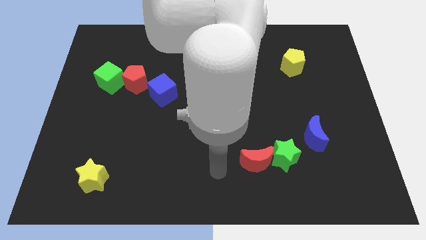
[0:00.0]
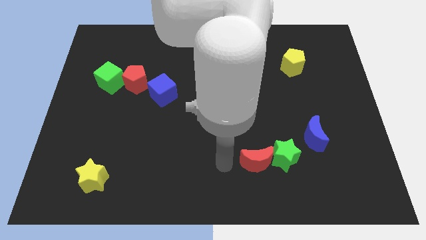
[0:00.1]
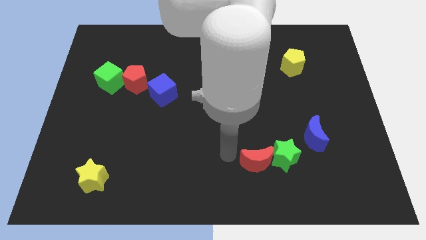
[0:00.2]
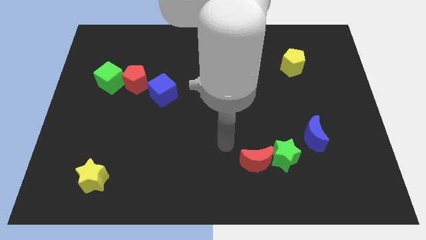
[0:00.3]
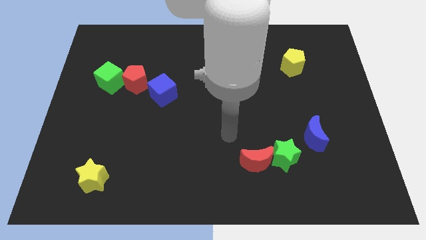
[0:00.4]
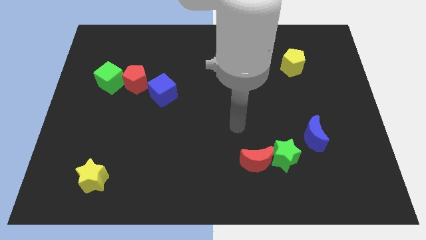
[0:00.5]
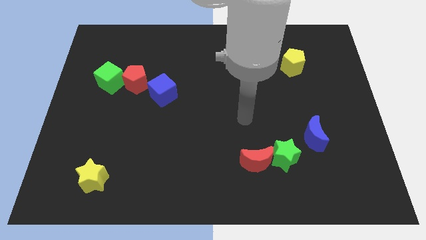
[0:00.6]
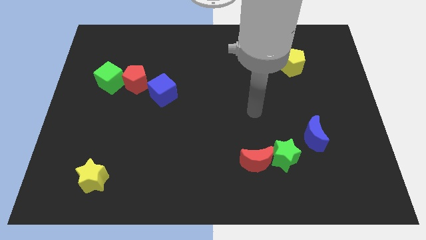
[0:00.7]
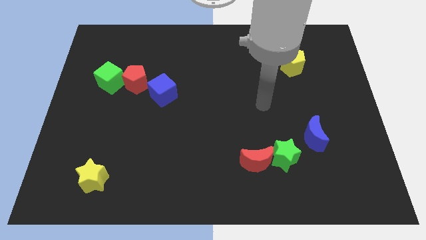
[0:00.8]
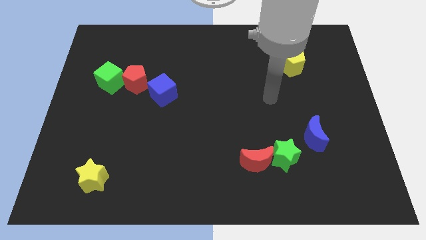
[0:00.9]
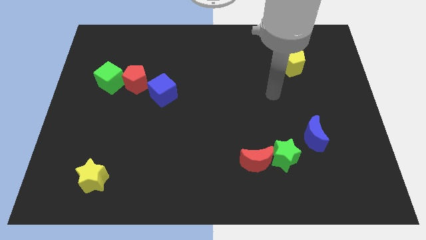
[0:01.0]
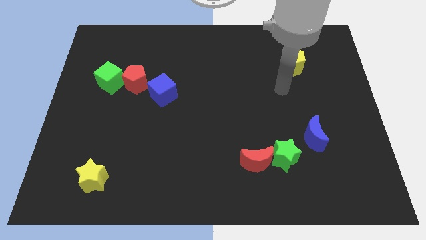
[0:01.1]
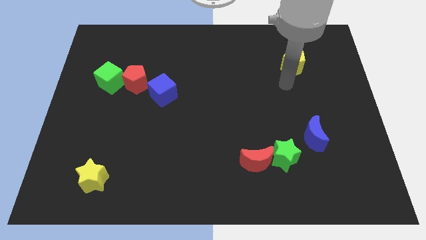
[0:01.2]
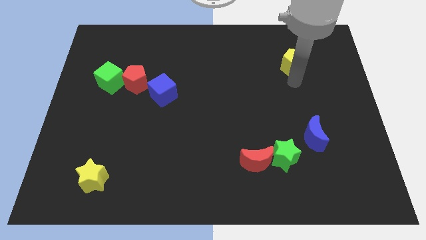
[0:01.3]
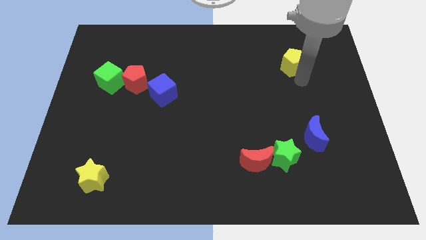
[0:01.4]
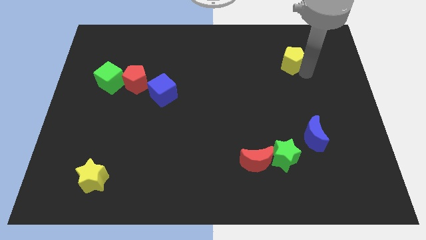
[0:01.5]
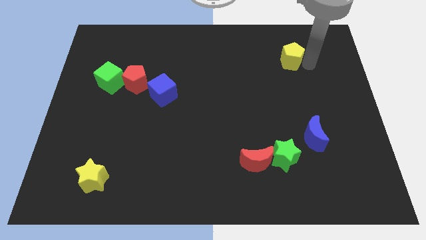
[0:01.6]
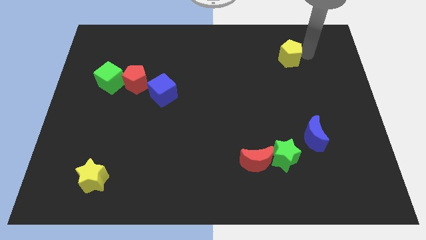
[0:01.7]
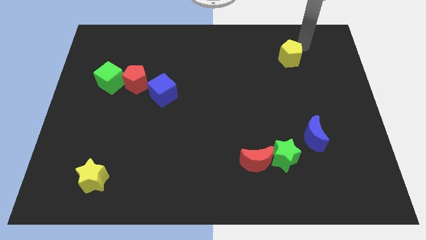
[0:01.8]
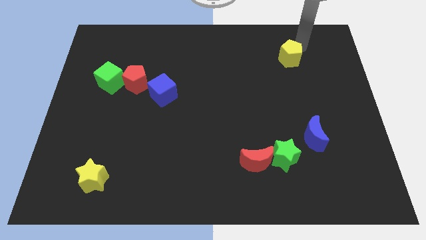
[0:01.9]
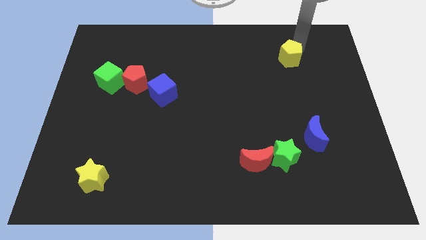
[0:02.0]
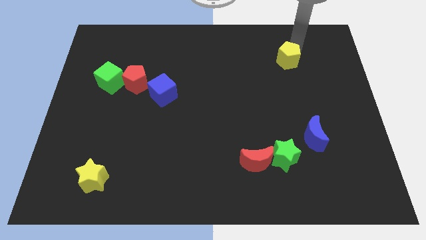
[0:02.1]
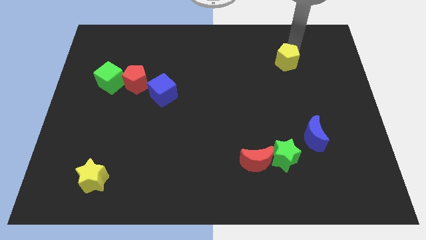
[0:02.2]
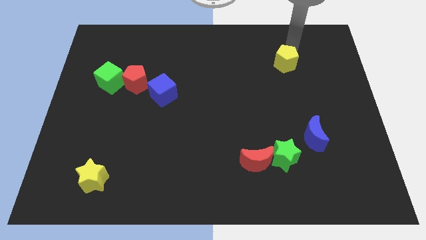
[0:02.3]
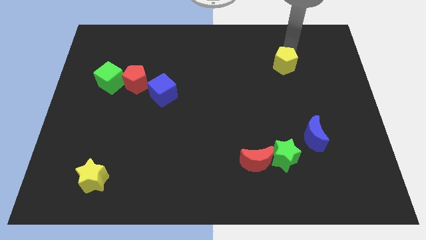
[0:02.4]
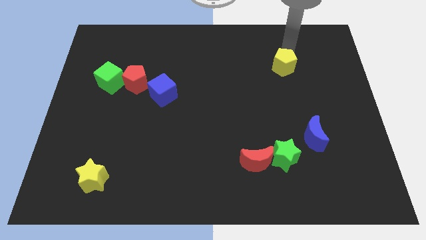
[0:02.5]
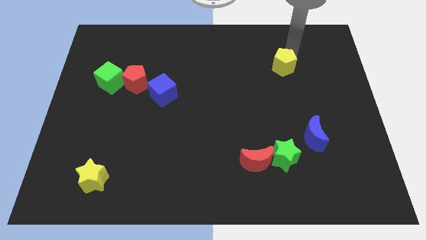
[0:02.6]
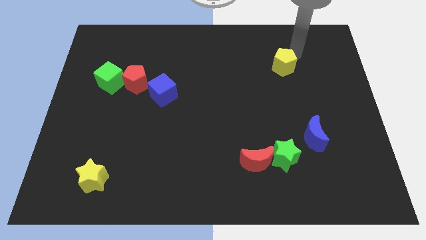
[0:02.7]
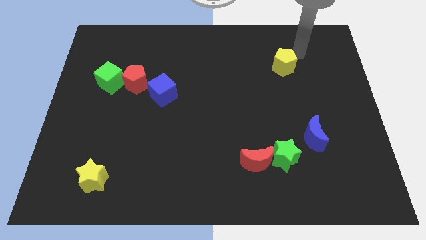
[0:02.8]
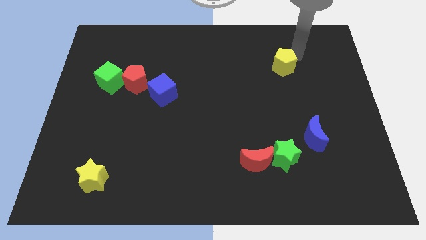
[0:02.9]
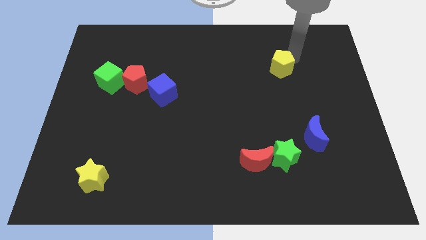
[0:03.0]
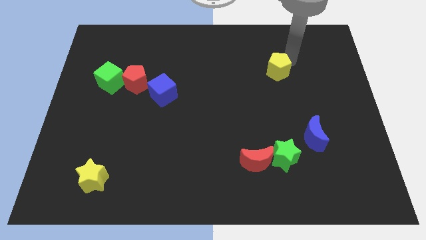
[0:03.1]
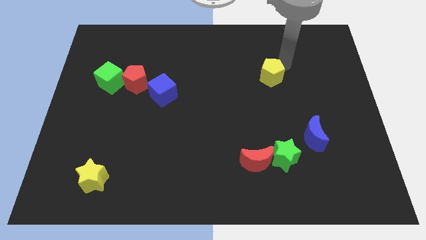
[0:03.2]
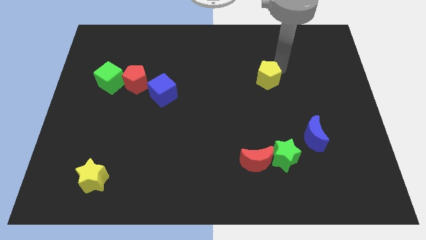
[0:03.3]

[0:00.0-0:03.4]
push the yellow pentagon diagonally downwards and to the left a little bit

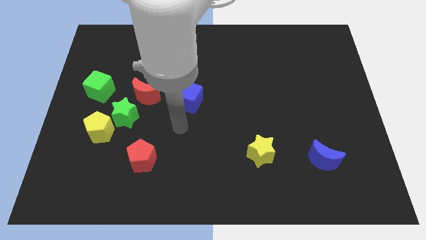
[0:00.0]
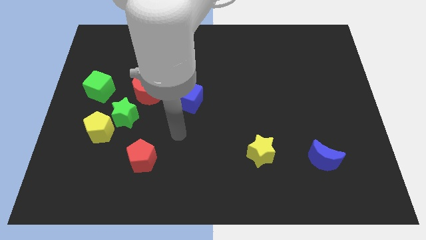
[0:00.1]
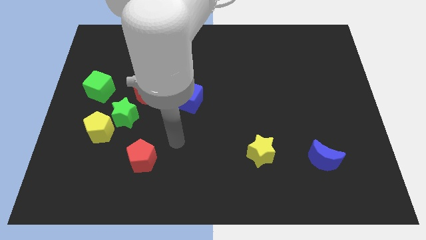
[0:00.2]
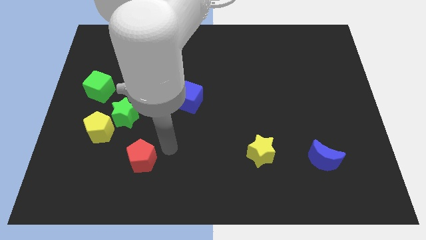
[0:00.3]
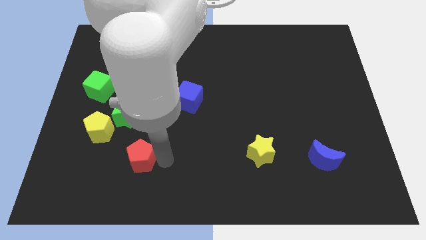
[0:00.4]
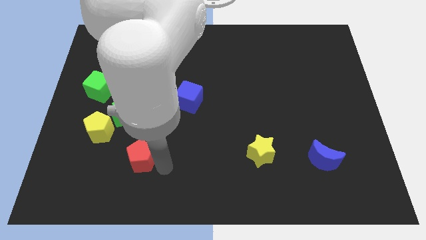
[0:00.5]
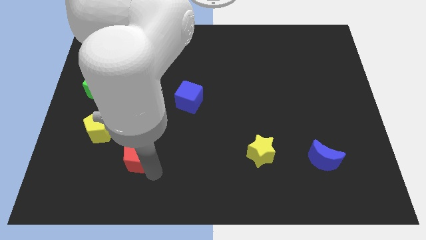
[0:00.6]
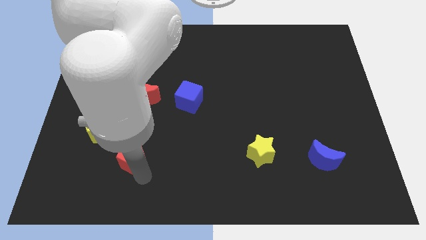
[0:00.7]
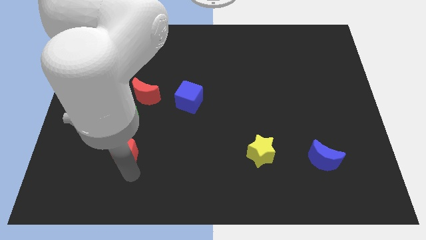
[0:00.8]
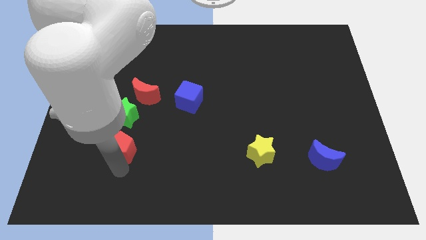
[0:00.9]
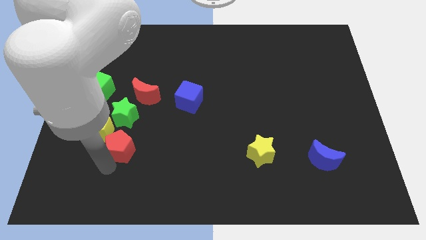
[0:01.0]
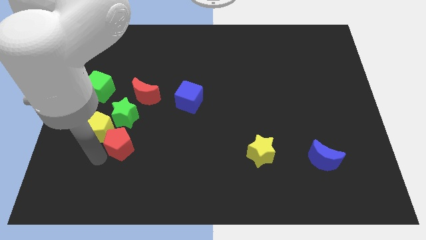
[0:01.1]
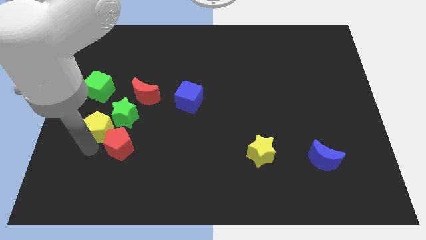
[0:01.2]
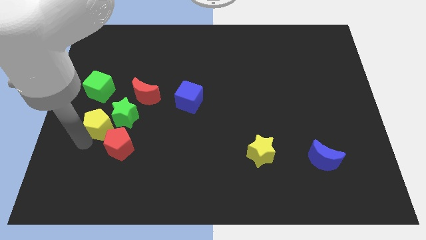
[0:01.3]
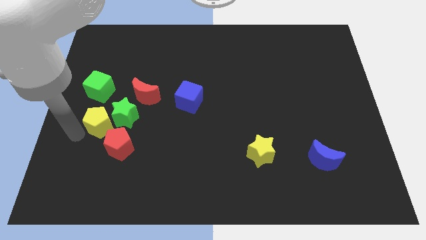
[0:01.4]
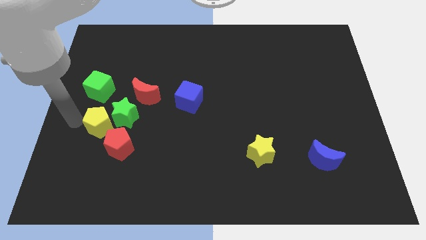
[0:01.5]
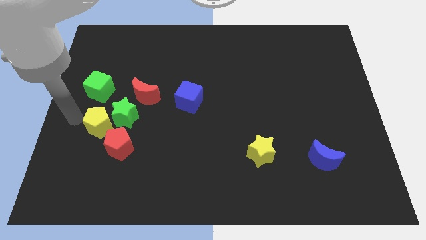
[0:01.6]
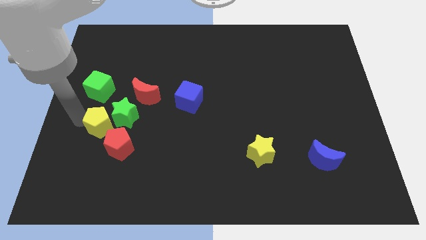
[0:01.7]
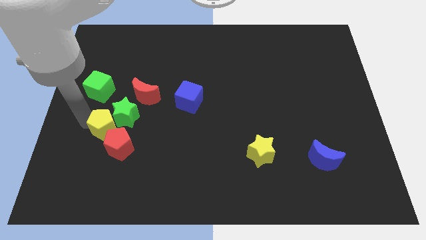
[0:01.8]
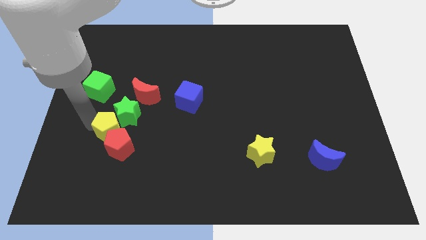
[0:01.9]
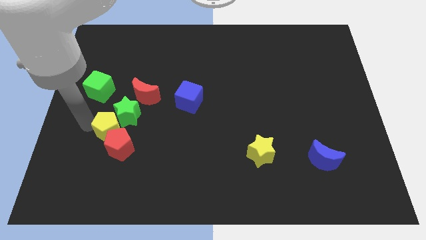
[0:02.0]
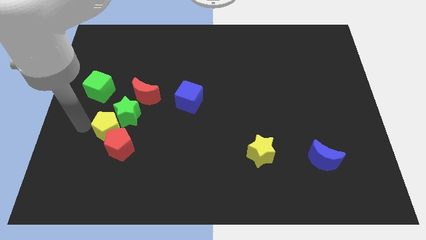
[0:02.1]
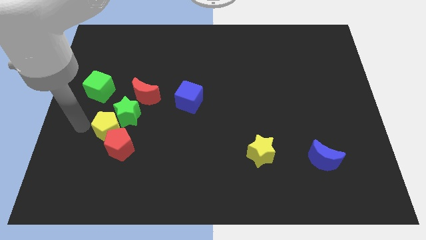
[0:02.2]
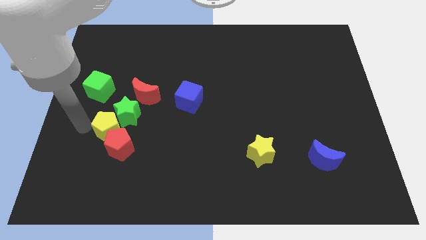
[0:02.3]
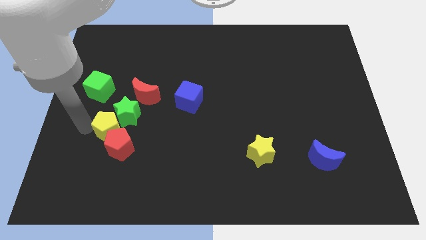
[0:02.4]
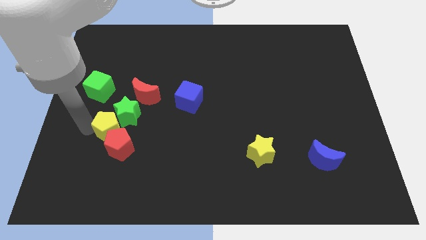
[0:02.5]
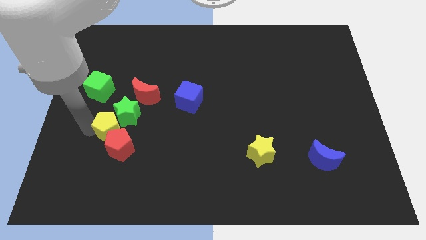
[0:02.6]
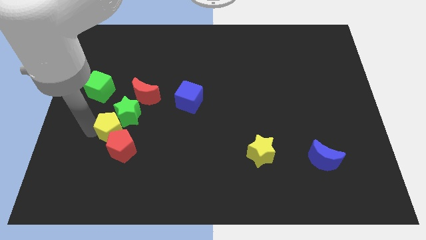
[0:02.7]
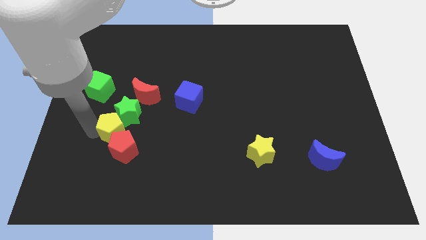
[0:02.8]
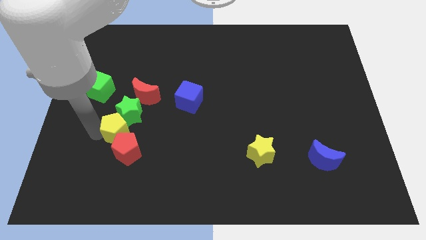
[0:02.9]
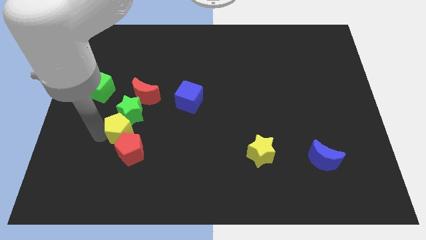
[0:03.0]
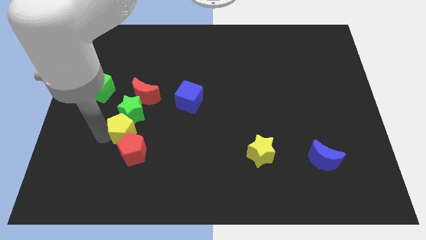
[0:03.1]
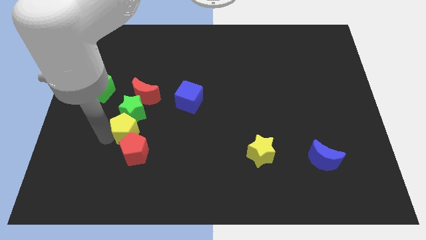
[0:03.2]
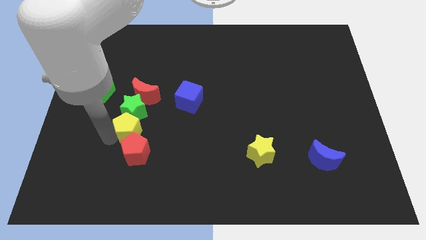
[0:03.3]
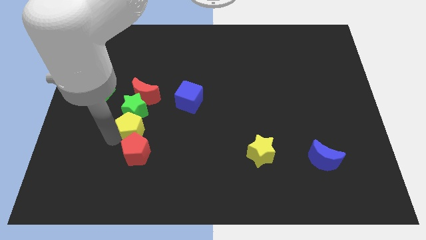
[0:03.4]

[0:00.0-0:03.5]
slightly move the yellow pentagon right

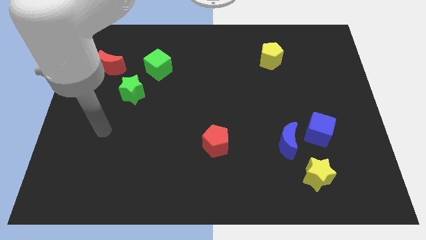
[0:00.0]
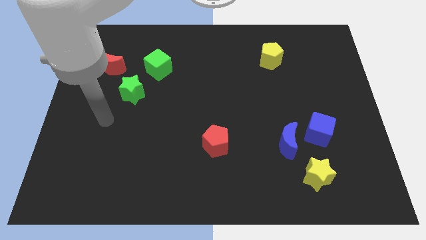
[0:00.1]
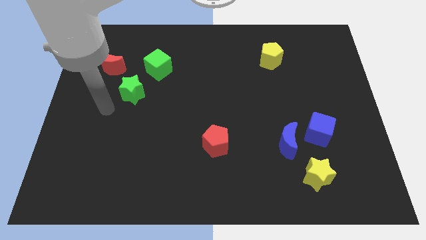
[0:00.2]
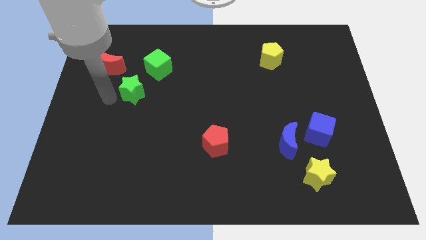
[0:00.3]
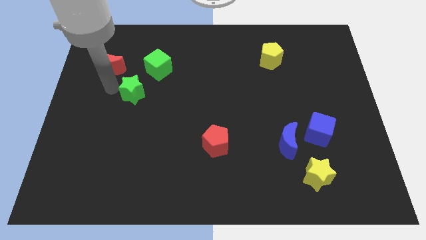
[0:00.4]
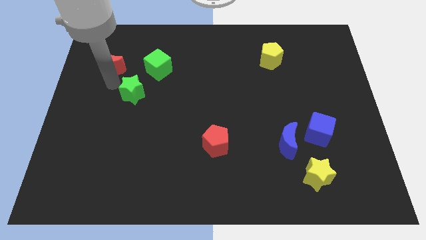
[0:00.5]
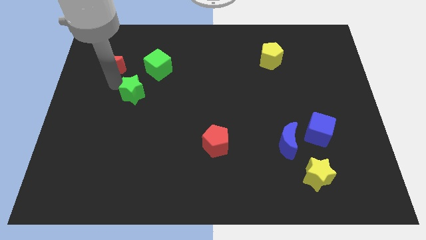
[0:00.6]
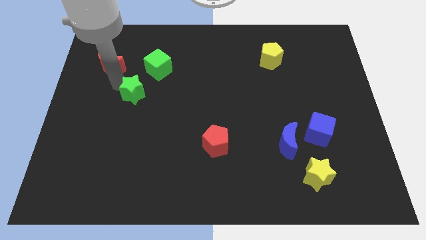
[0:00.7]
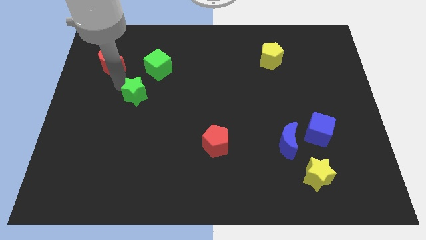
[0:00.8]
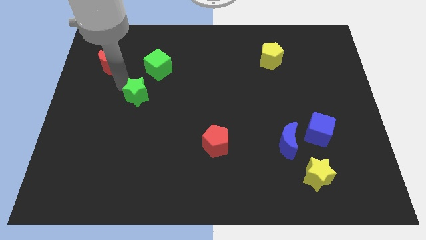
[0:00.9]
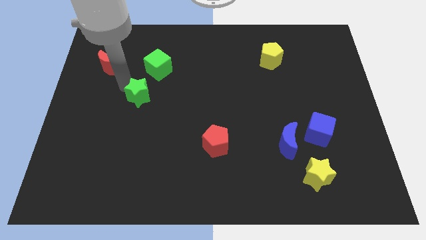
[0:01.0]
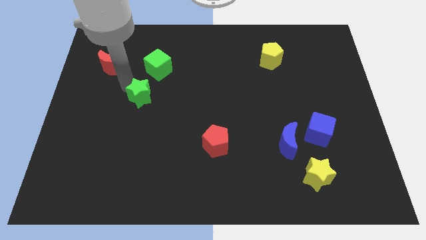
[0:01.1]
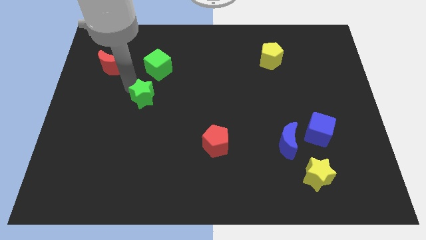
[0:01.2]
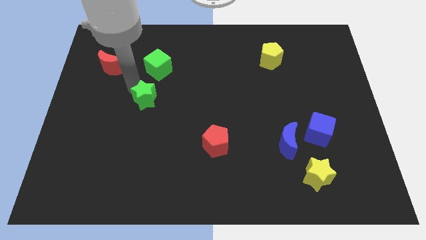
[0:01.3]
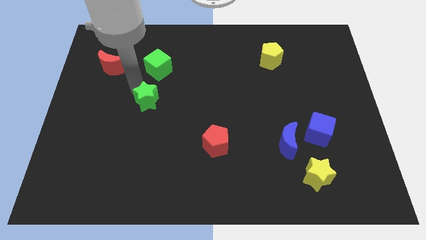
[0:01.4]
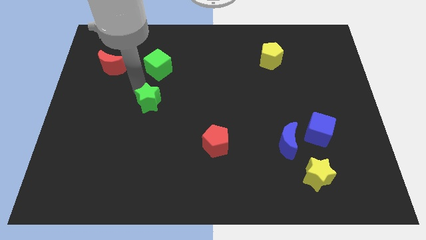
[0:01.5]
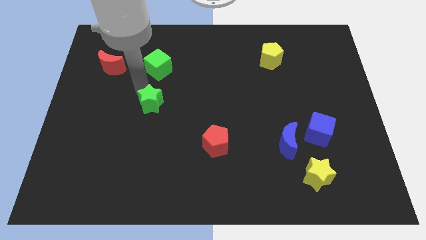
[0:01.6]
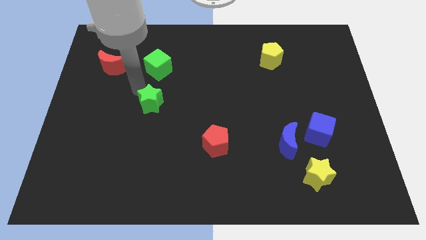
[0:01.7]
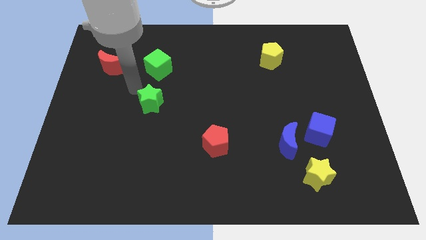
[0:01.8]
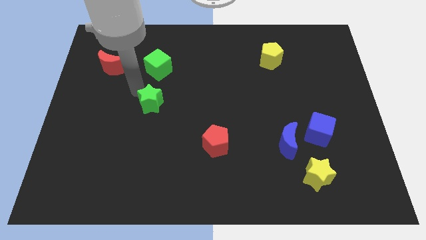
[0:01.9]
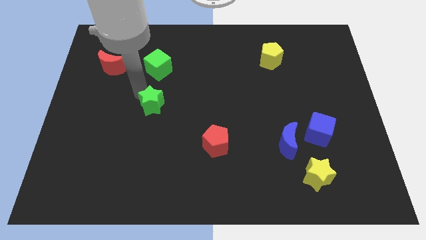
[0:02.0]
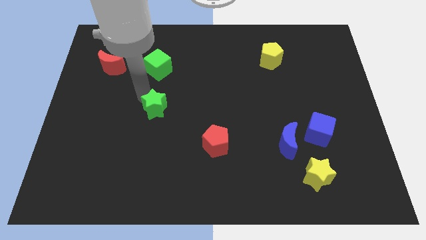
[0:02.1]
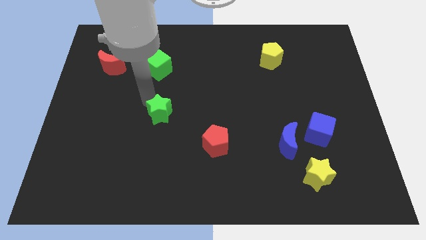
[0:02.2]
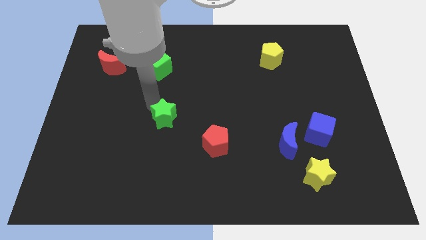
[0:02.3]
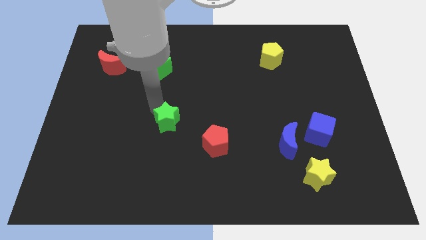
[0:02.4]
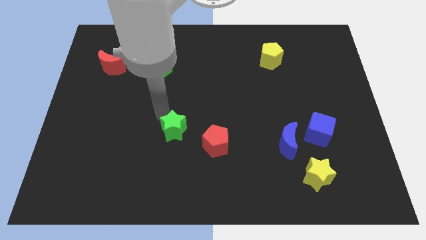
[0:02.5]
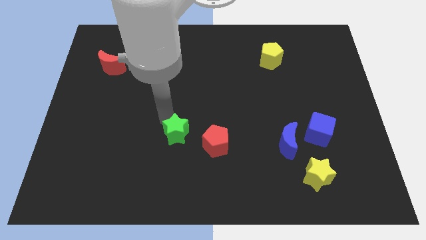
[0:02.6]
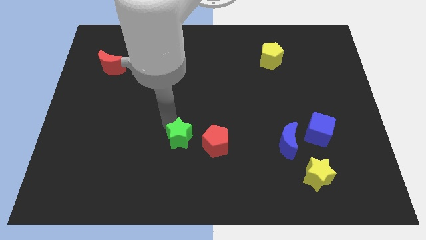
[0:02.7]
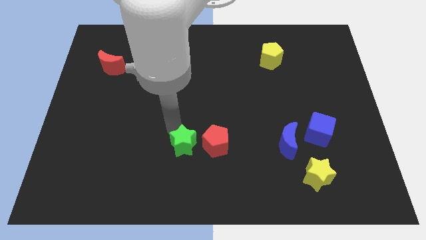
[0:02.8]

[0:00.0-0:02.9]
push the green star downwards and to the right
